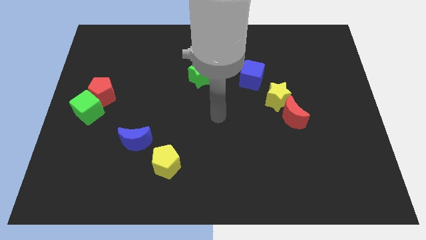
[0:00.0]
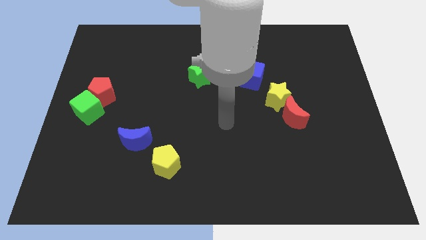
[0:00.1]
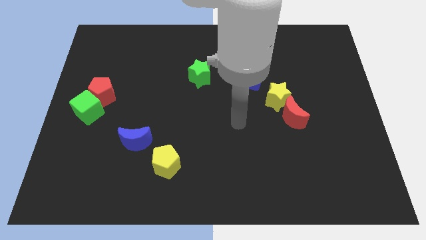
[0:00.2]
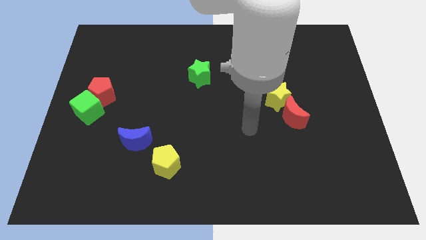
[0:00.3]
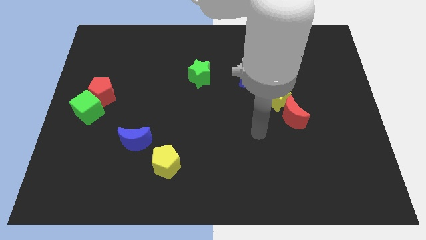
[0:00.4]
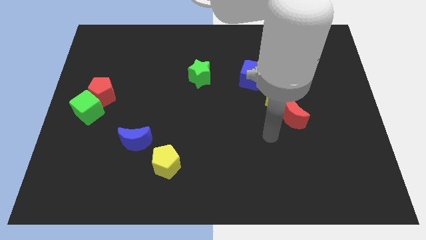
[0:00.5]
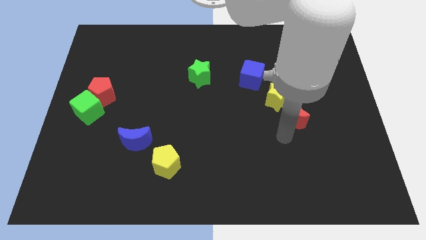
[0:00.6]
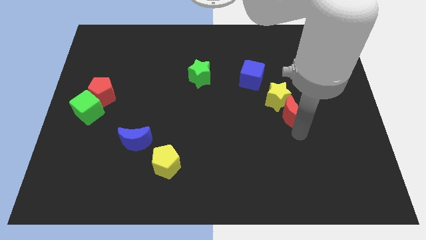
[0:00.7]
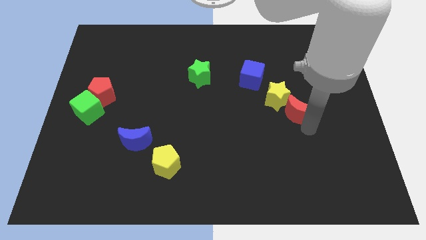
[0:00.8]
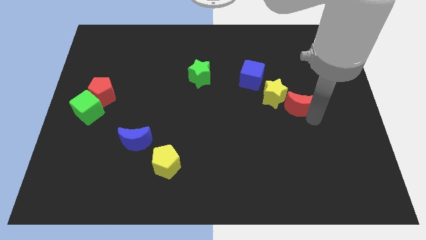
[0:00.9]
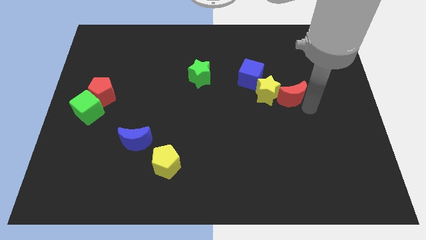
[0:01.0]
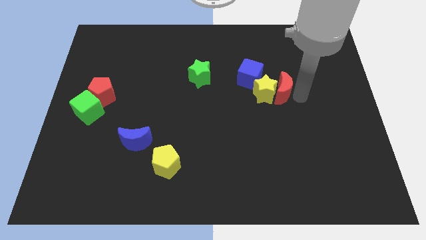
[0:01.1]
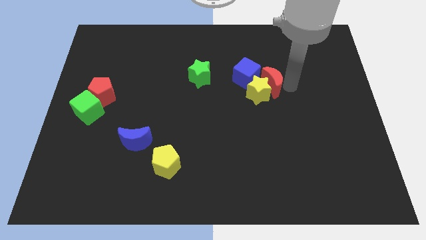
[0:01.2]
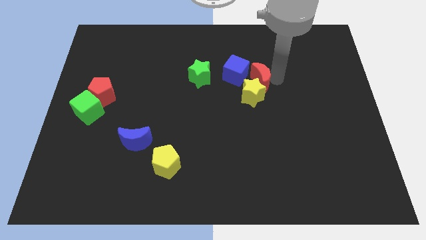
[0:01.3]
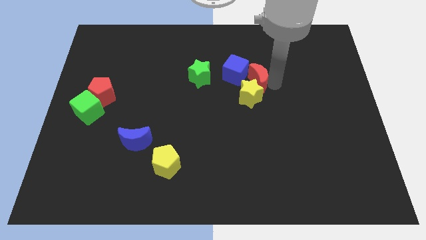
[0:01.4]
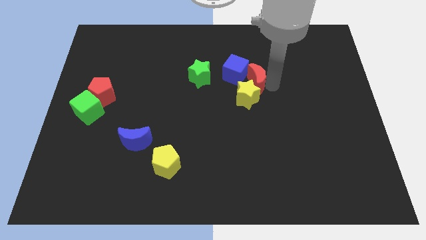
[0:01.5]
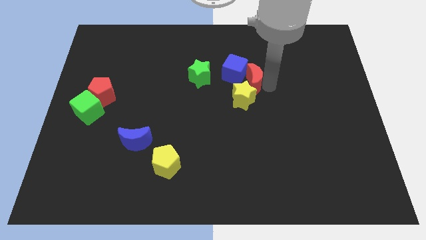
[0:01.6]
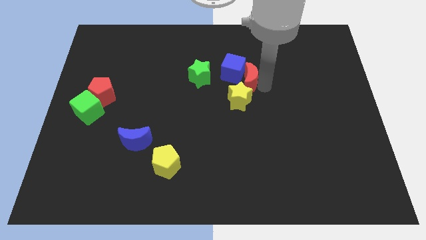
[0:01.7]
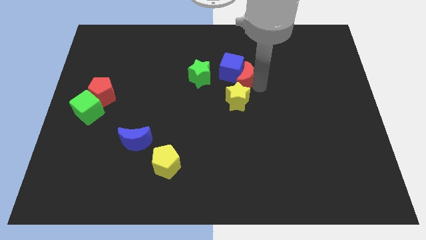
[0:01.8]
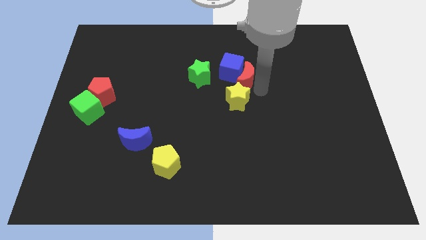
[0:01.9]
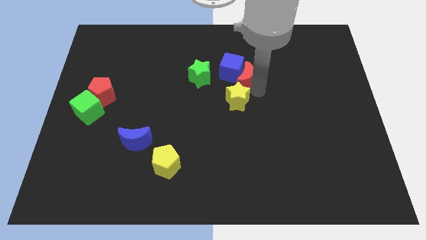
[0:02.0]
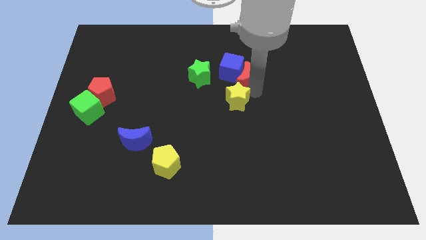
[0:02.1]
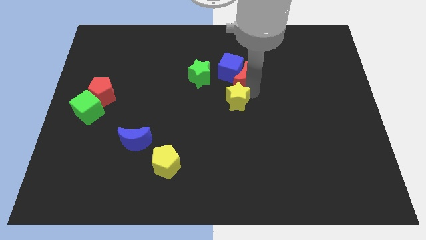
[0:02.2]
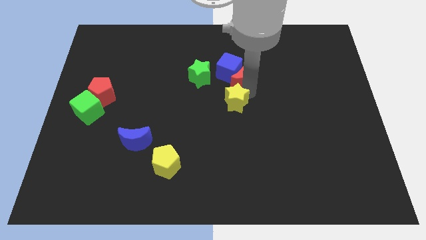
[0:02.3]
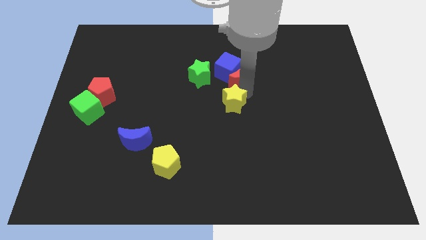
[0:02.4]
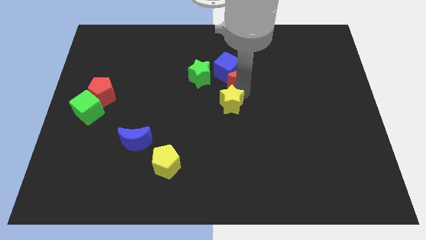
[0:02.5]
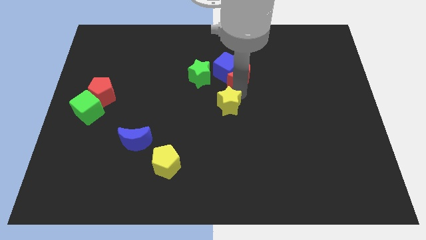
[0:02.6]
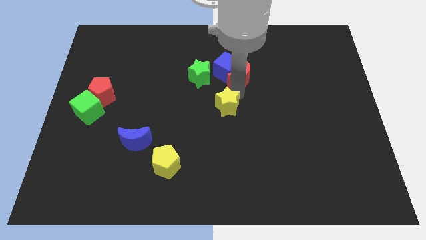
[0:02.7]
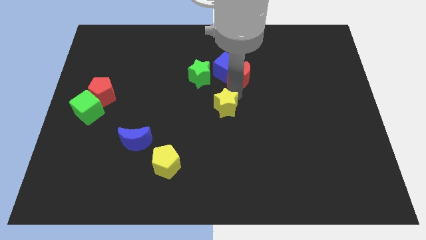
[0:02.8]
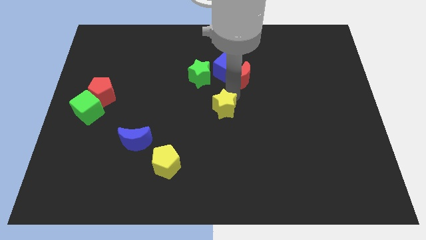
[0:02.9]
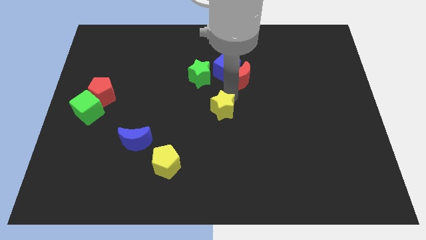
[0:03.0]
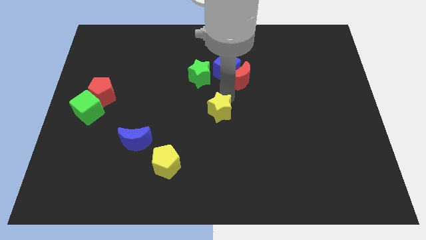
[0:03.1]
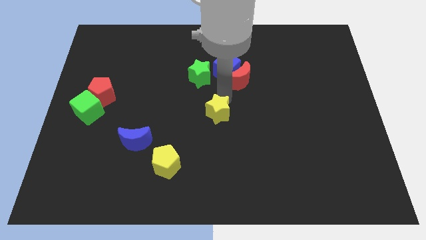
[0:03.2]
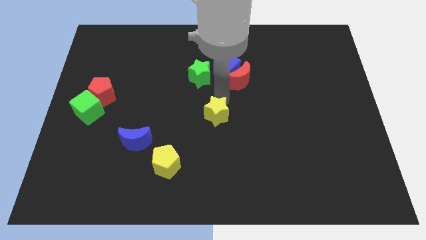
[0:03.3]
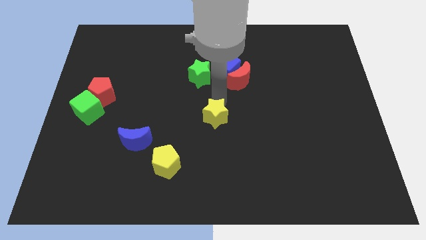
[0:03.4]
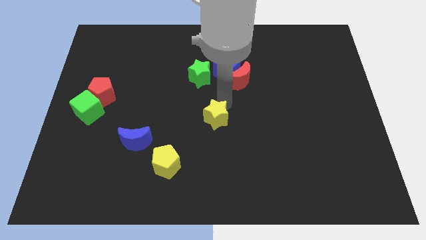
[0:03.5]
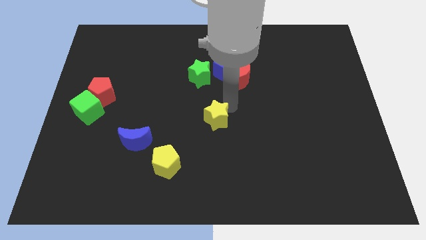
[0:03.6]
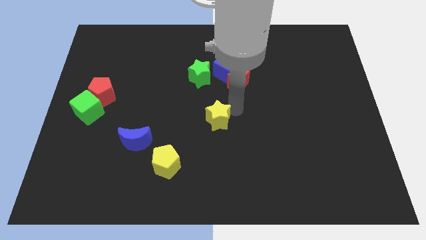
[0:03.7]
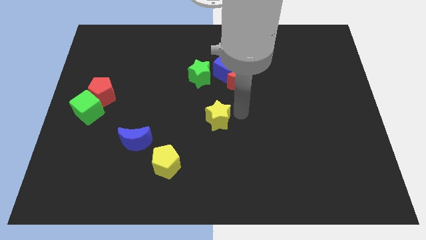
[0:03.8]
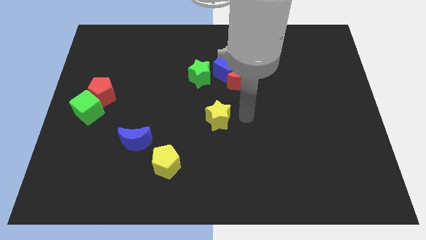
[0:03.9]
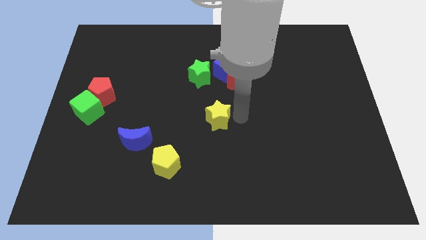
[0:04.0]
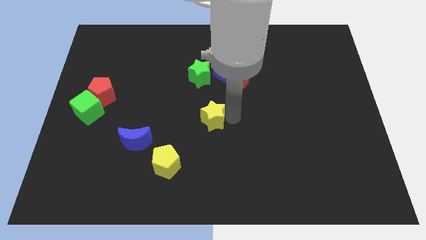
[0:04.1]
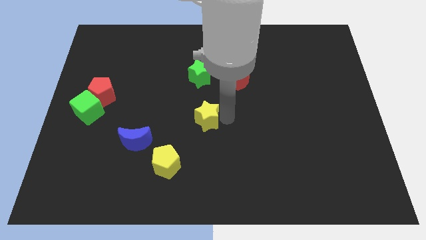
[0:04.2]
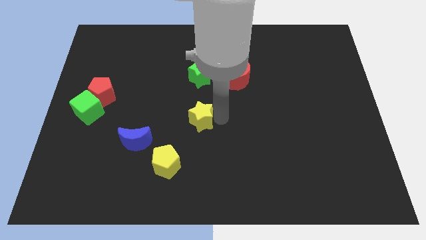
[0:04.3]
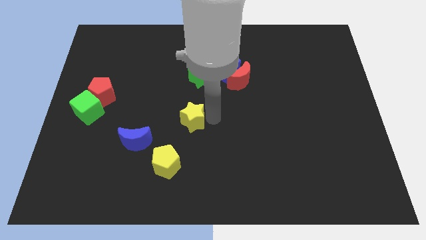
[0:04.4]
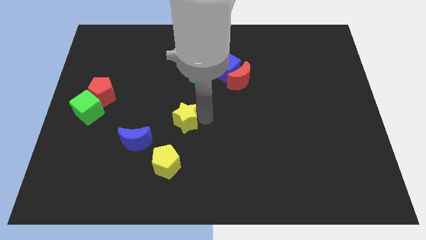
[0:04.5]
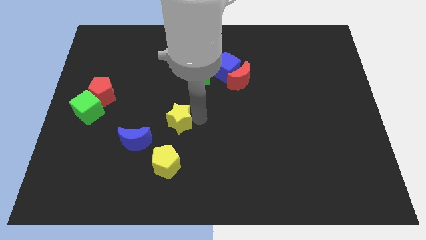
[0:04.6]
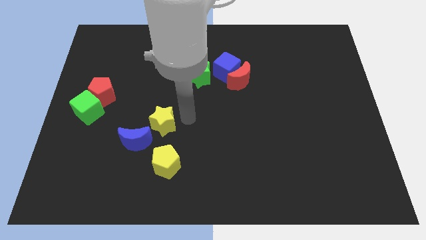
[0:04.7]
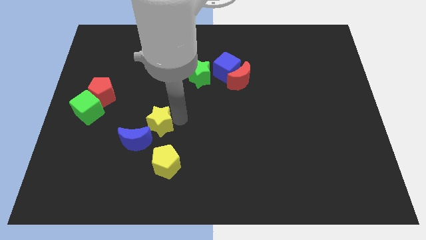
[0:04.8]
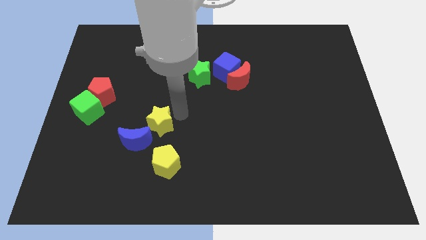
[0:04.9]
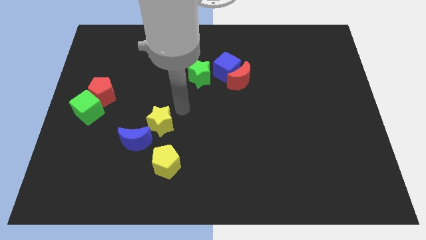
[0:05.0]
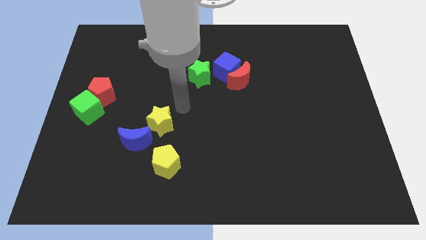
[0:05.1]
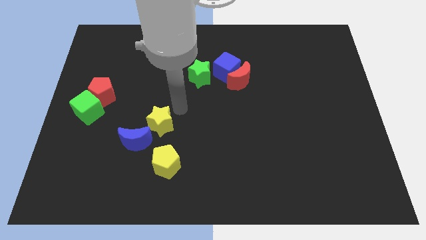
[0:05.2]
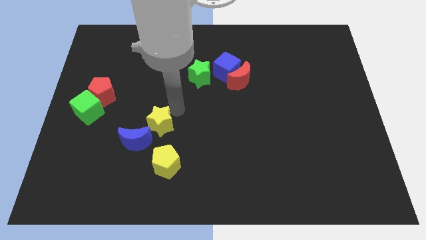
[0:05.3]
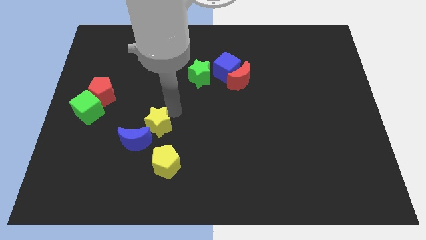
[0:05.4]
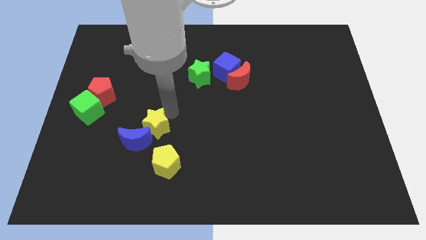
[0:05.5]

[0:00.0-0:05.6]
move the yellow star next to the blue moon

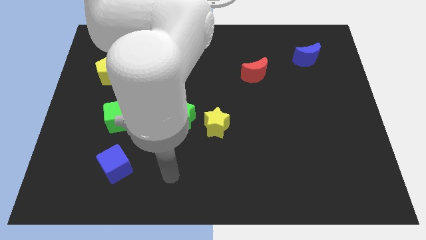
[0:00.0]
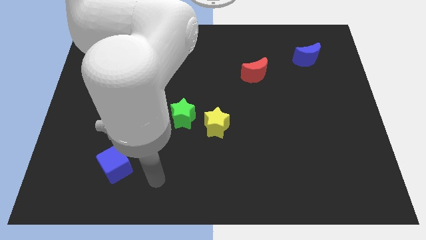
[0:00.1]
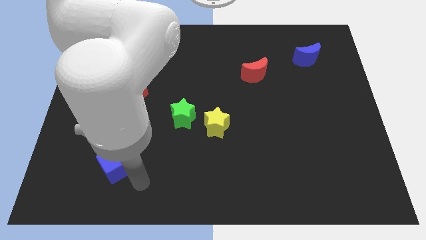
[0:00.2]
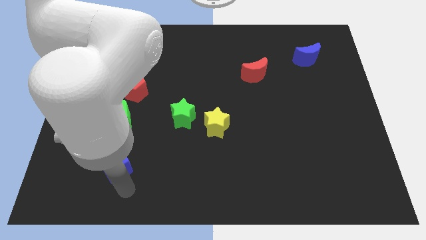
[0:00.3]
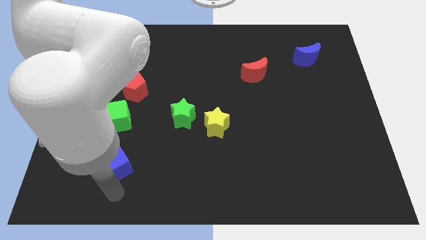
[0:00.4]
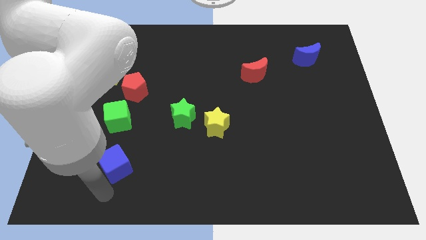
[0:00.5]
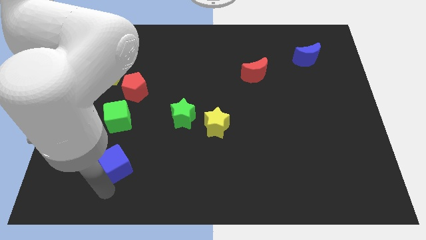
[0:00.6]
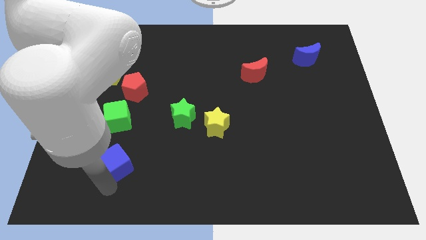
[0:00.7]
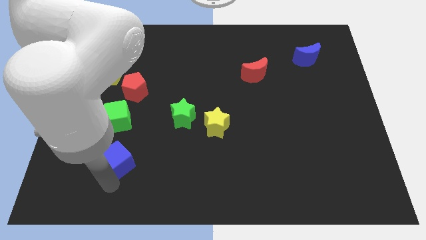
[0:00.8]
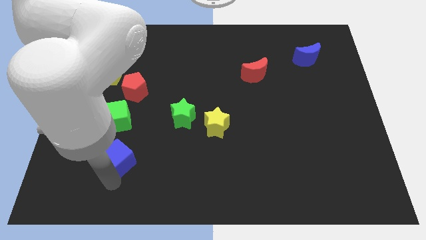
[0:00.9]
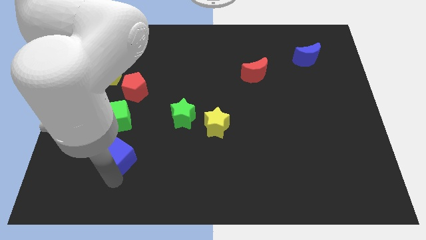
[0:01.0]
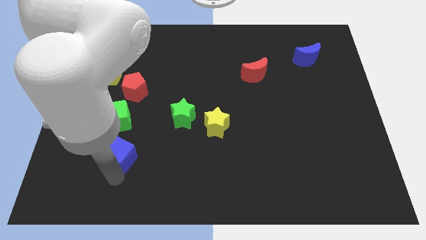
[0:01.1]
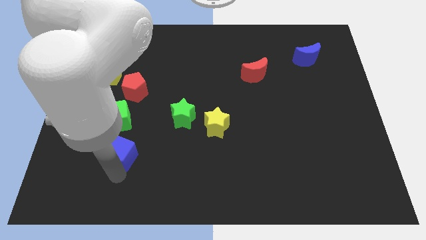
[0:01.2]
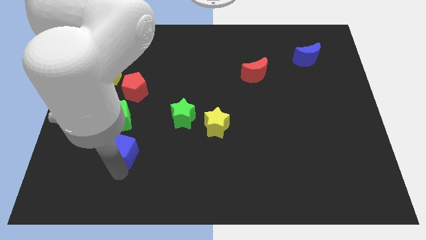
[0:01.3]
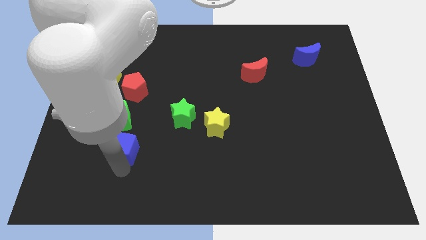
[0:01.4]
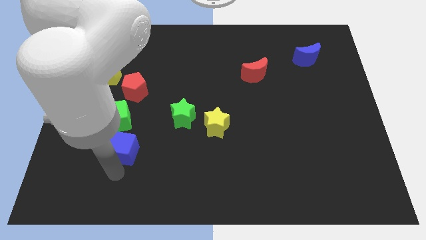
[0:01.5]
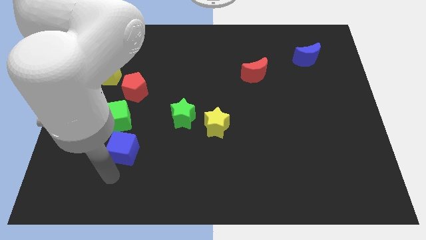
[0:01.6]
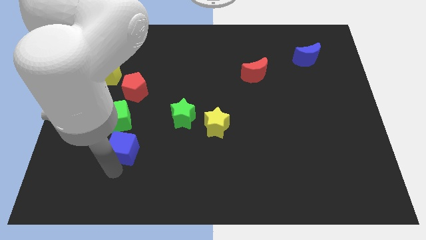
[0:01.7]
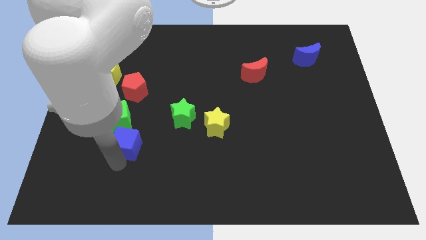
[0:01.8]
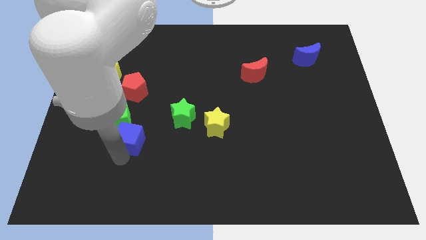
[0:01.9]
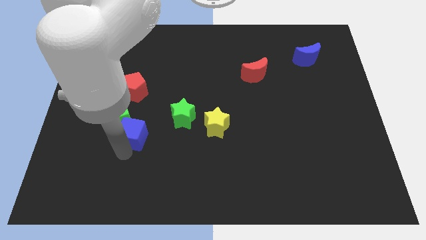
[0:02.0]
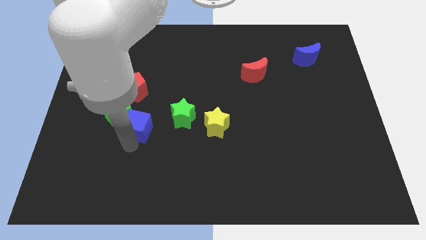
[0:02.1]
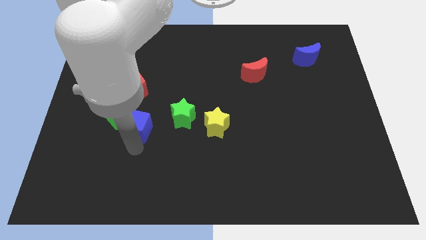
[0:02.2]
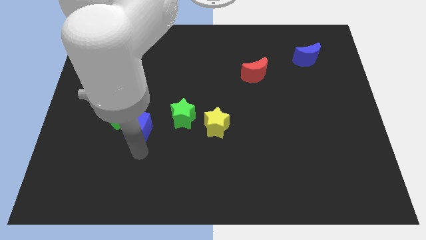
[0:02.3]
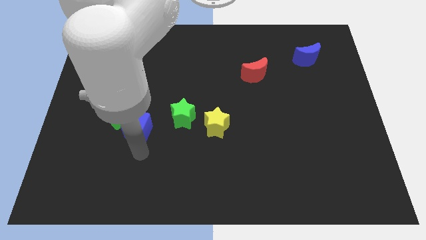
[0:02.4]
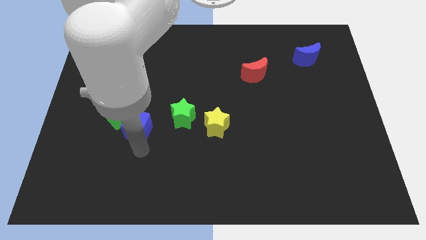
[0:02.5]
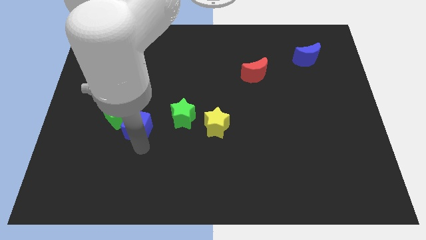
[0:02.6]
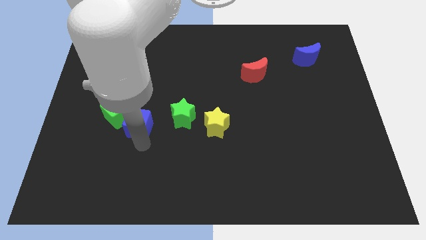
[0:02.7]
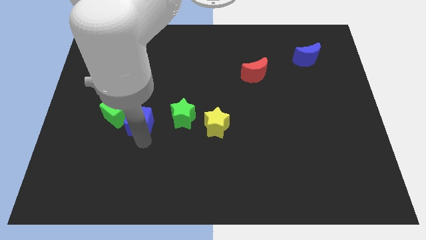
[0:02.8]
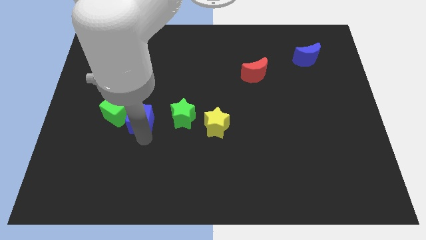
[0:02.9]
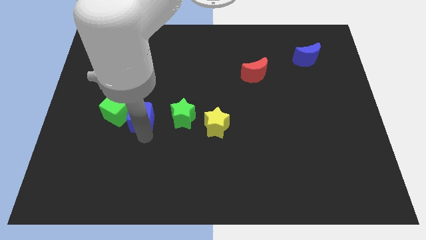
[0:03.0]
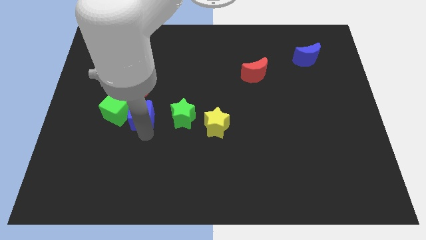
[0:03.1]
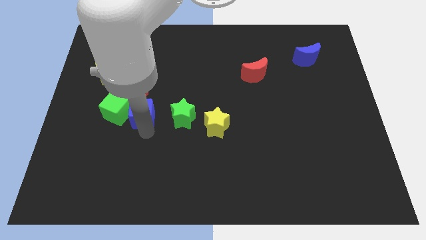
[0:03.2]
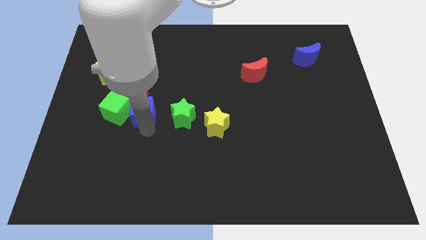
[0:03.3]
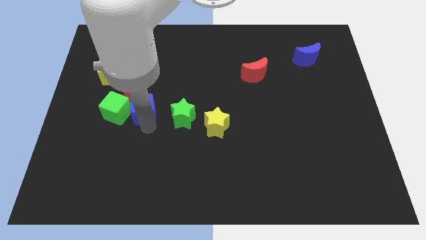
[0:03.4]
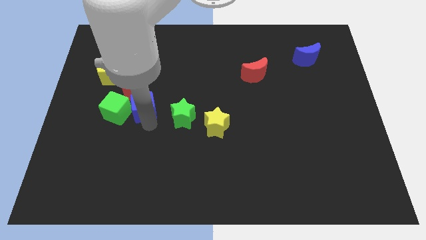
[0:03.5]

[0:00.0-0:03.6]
slide the blue cube close to the red pentagon
